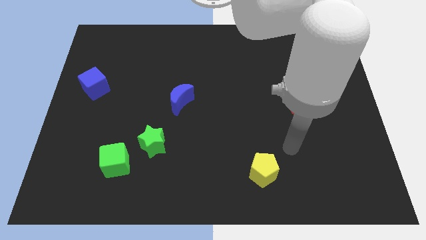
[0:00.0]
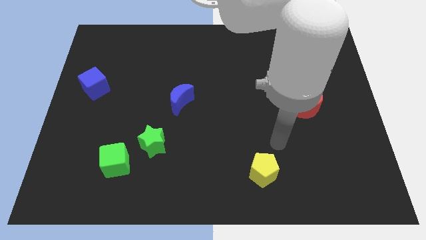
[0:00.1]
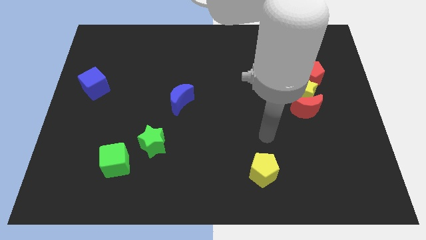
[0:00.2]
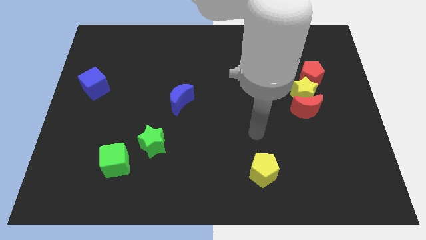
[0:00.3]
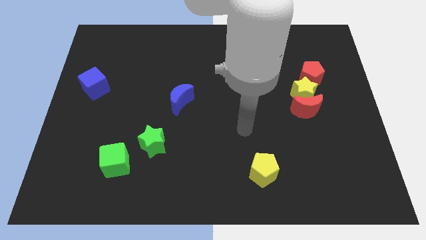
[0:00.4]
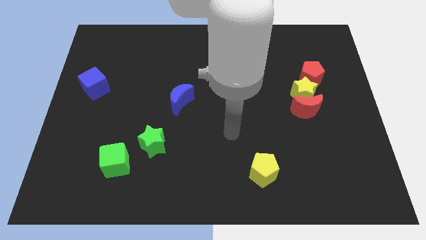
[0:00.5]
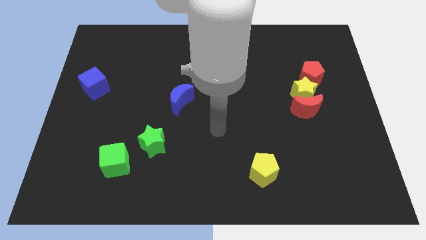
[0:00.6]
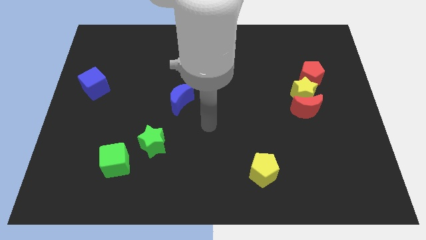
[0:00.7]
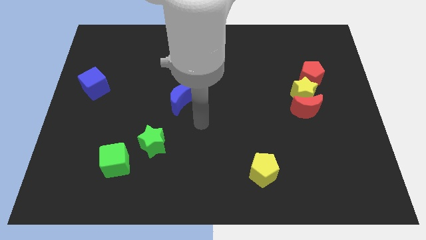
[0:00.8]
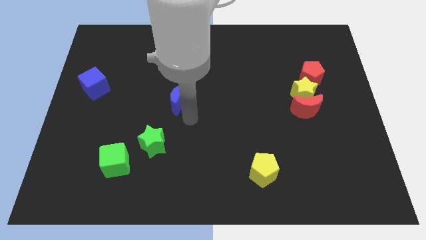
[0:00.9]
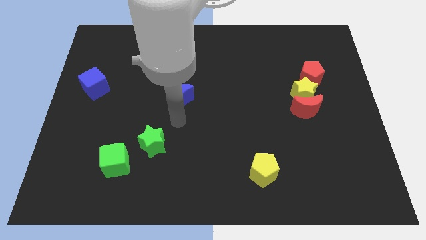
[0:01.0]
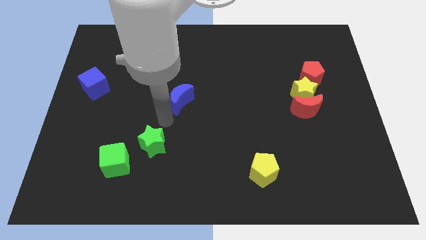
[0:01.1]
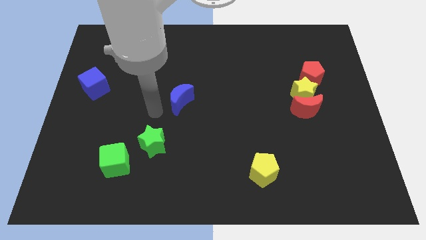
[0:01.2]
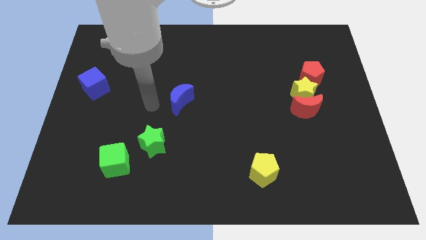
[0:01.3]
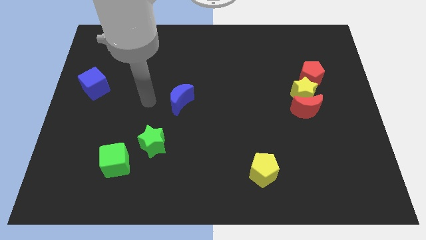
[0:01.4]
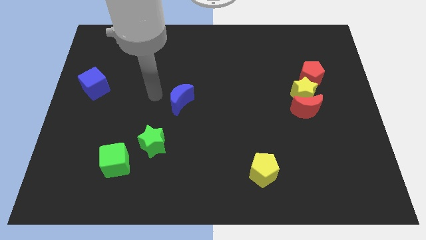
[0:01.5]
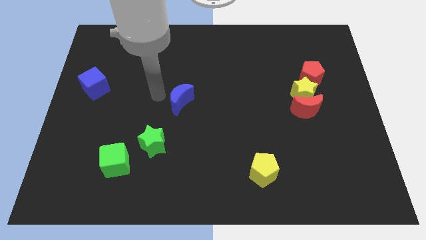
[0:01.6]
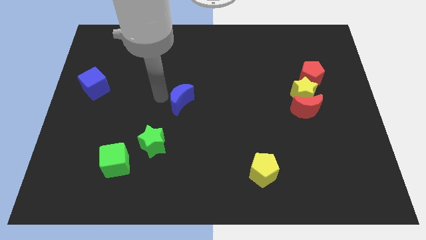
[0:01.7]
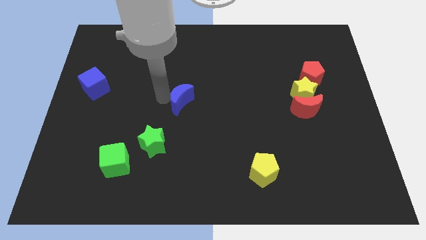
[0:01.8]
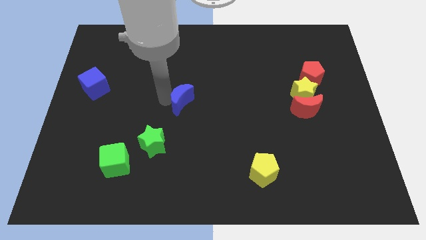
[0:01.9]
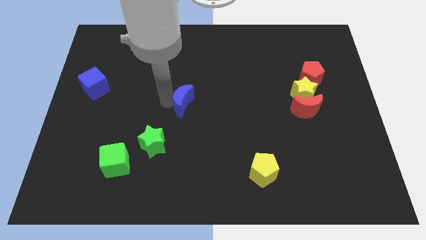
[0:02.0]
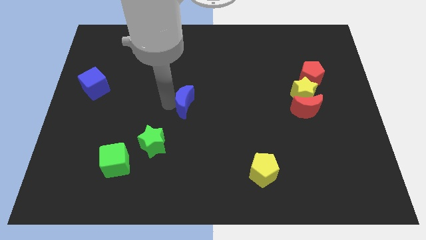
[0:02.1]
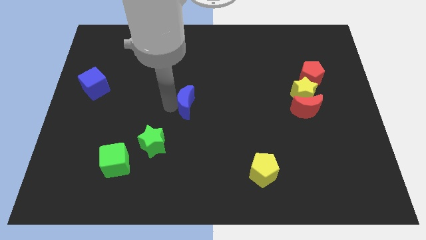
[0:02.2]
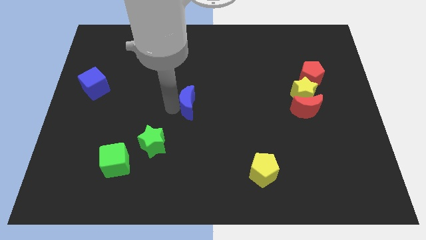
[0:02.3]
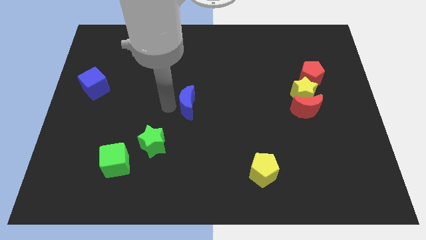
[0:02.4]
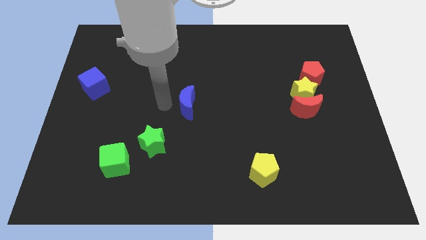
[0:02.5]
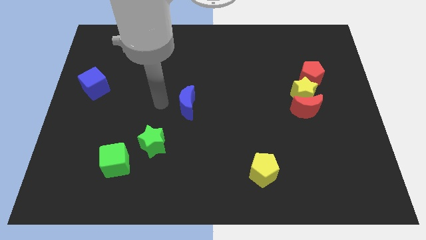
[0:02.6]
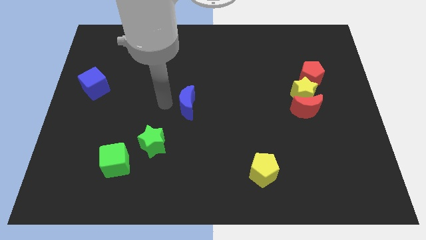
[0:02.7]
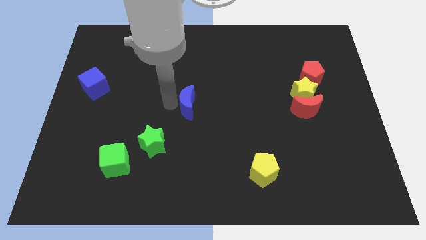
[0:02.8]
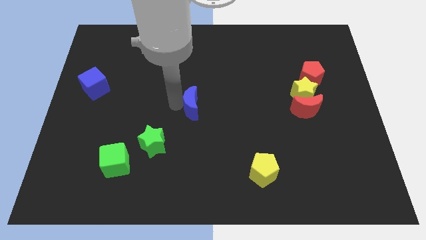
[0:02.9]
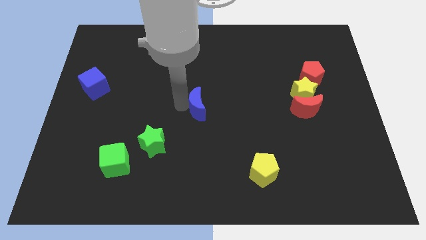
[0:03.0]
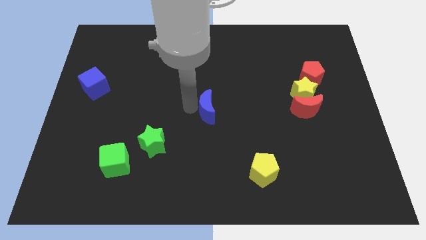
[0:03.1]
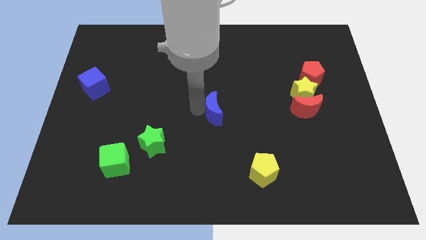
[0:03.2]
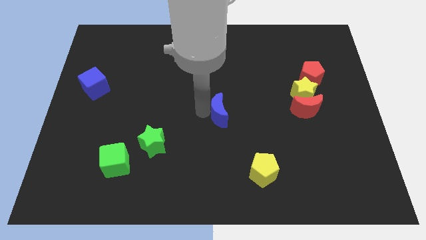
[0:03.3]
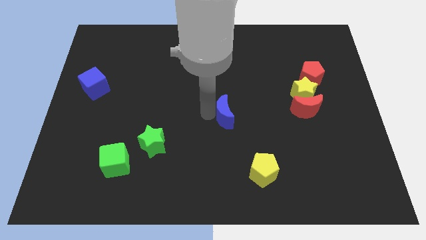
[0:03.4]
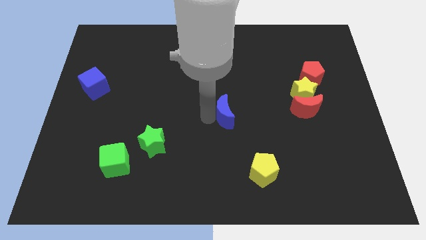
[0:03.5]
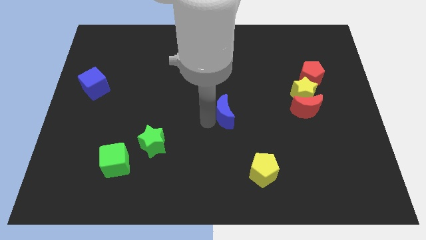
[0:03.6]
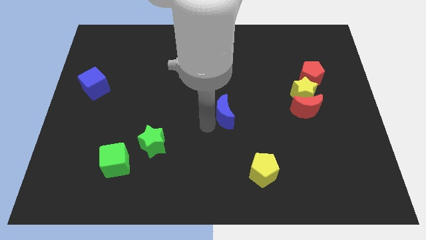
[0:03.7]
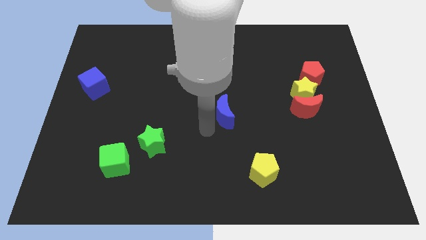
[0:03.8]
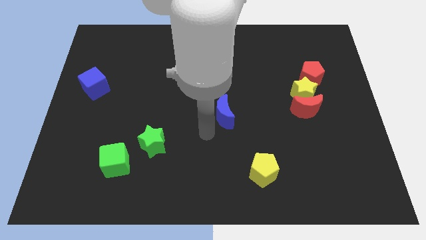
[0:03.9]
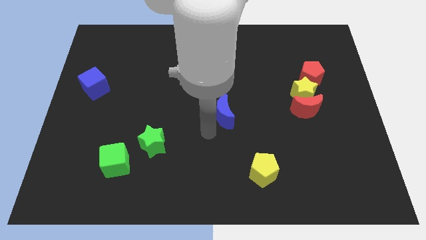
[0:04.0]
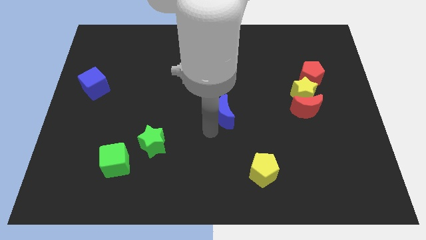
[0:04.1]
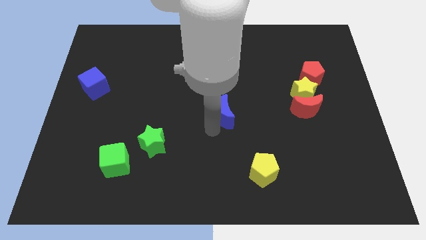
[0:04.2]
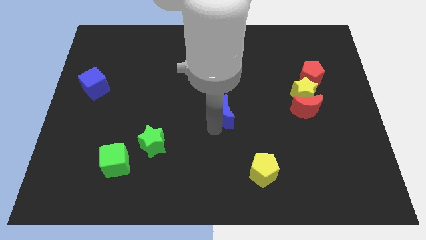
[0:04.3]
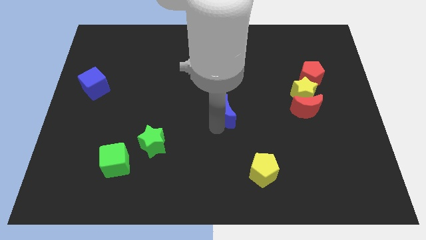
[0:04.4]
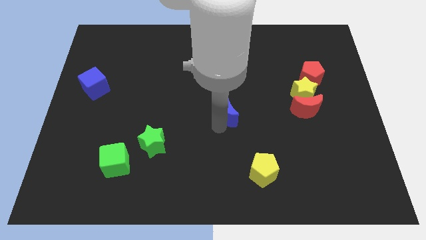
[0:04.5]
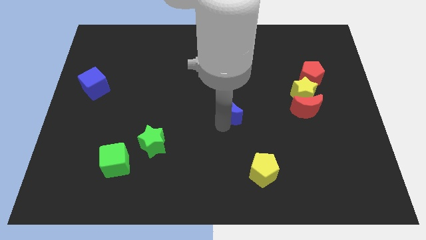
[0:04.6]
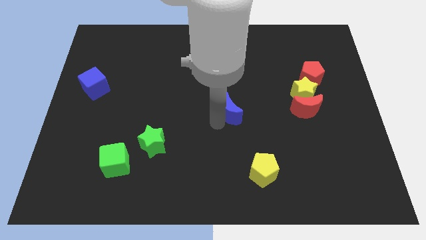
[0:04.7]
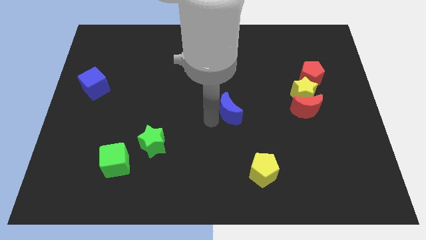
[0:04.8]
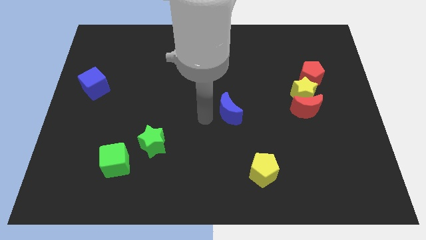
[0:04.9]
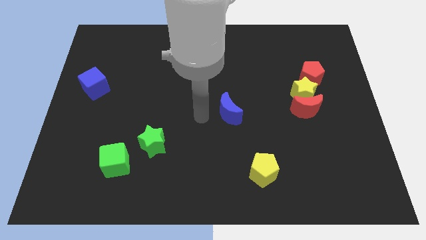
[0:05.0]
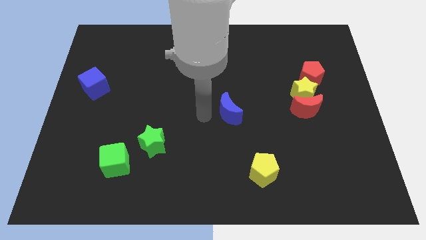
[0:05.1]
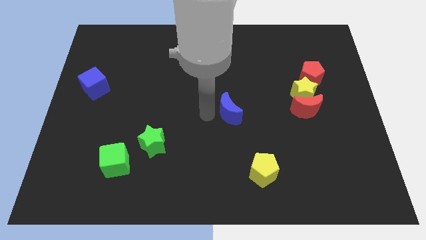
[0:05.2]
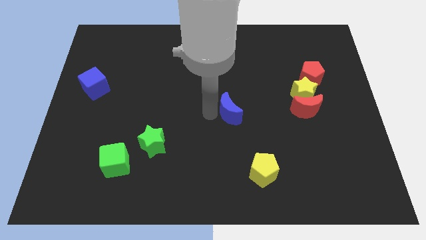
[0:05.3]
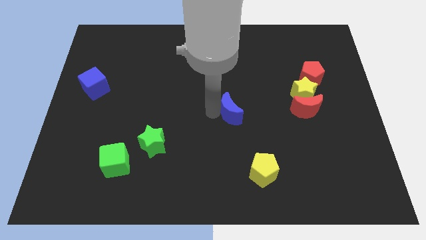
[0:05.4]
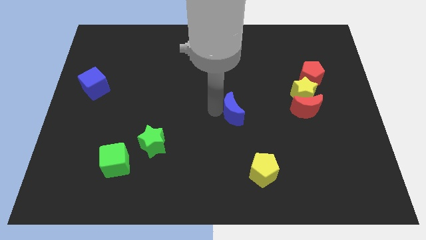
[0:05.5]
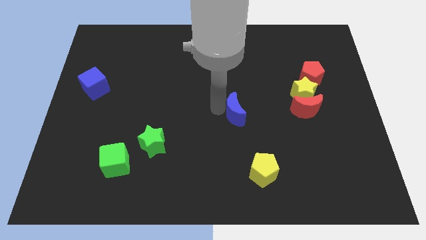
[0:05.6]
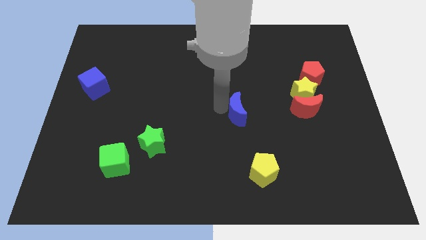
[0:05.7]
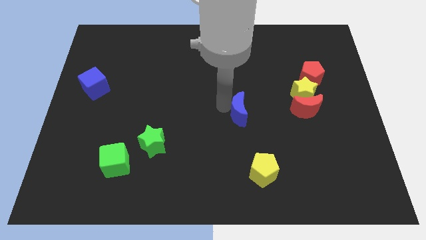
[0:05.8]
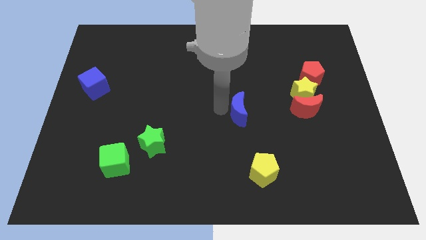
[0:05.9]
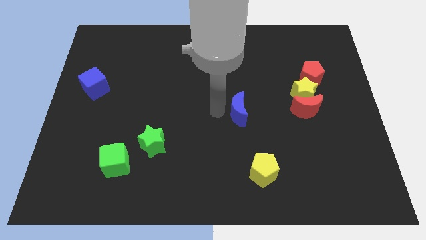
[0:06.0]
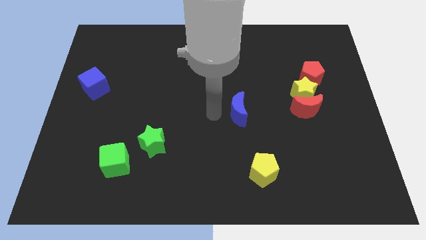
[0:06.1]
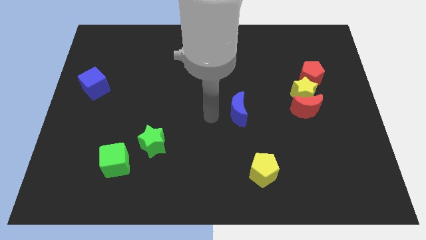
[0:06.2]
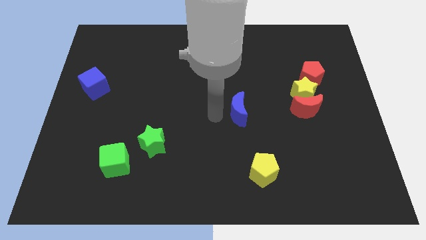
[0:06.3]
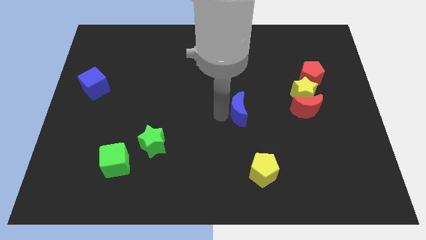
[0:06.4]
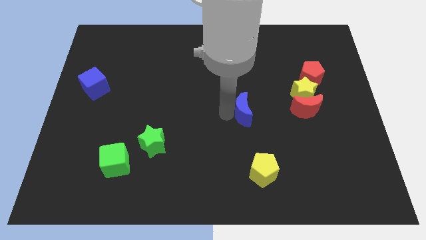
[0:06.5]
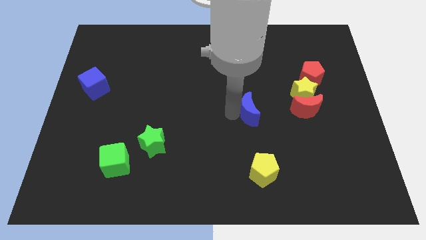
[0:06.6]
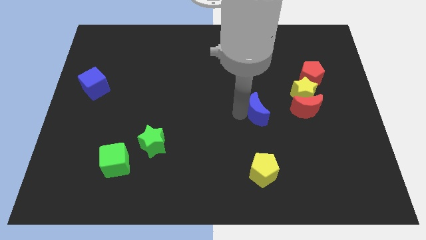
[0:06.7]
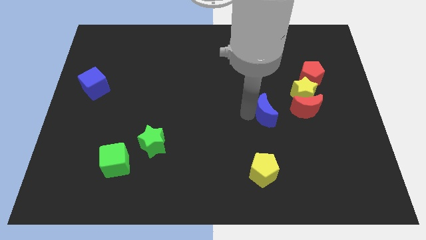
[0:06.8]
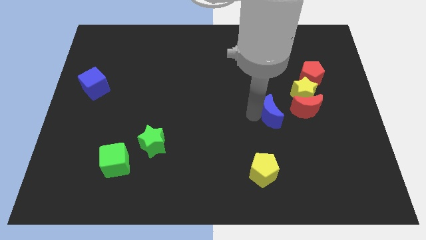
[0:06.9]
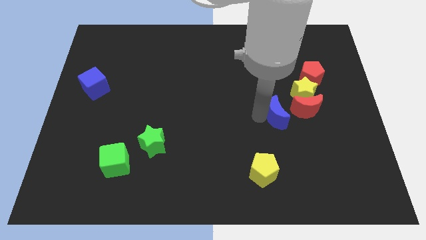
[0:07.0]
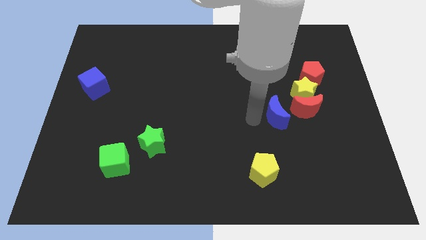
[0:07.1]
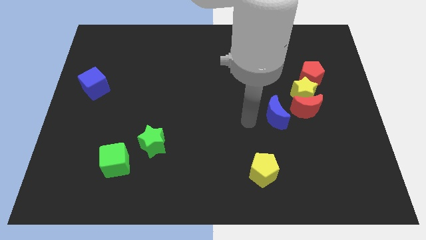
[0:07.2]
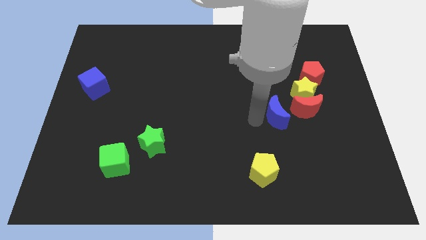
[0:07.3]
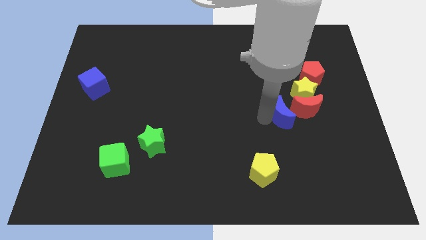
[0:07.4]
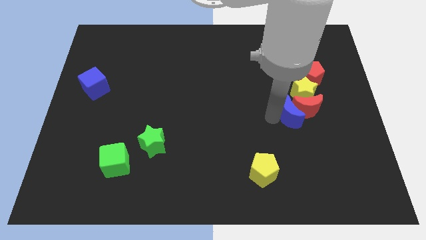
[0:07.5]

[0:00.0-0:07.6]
push the blue moon next to the red moon
